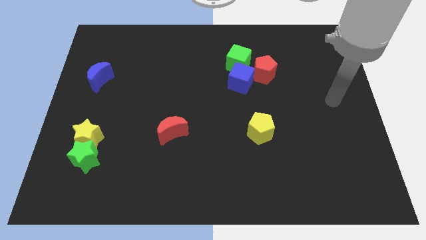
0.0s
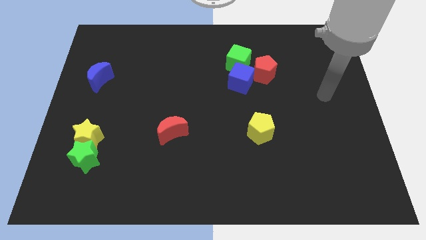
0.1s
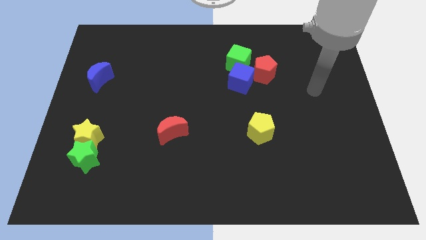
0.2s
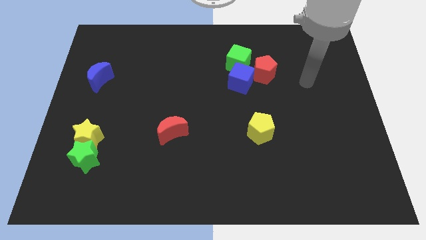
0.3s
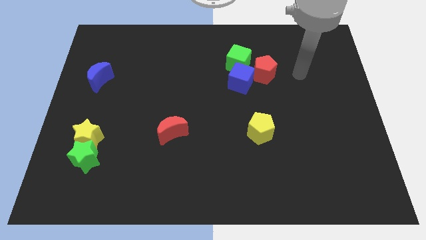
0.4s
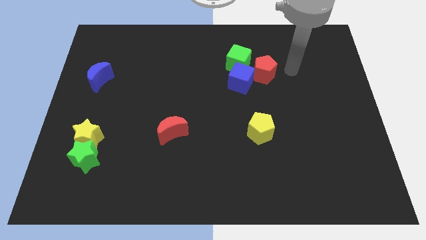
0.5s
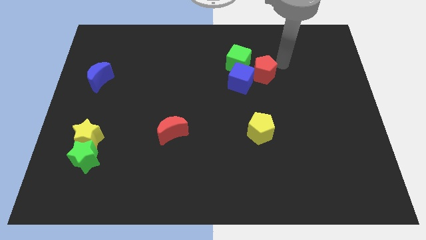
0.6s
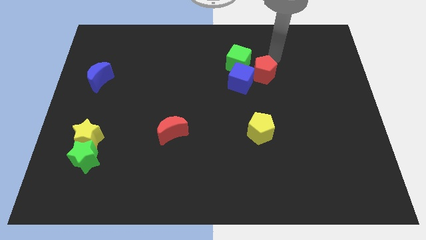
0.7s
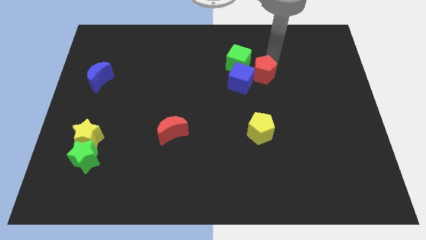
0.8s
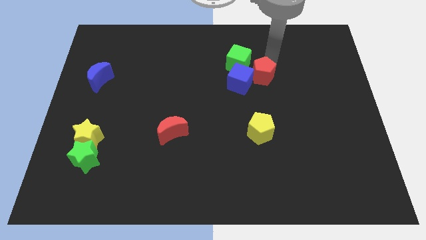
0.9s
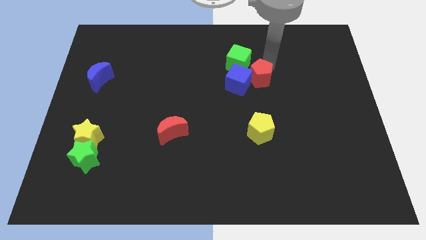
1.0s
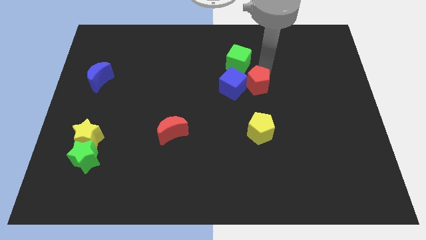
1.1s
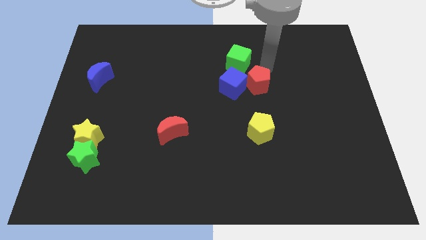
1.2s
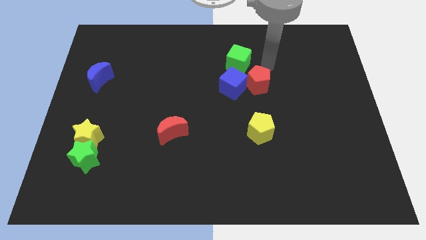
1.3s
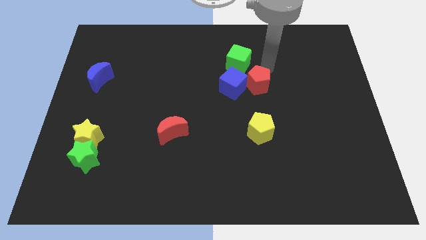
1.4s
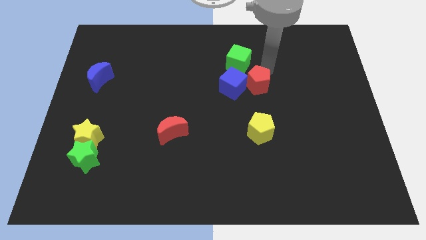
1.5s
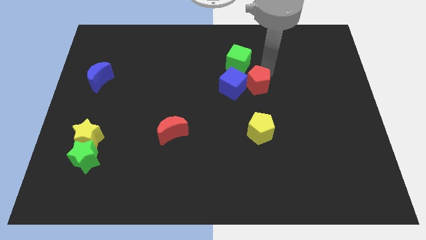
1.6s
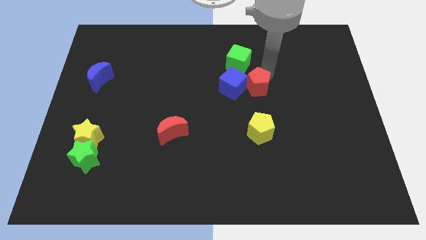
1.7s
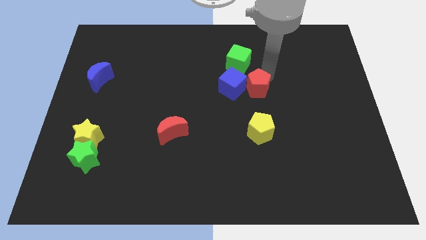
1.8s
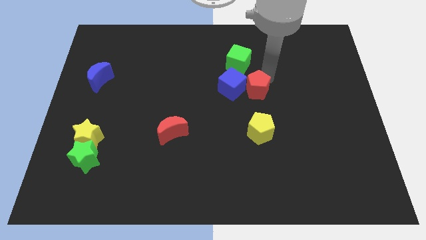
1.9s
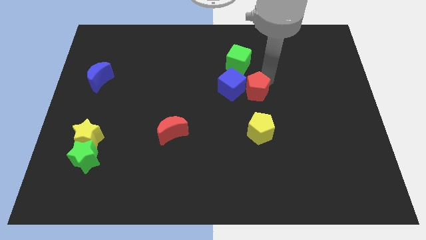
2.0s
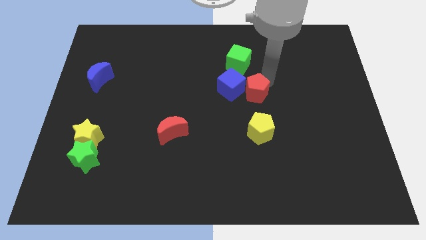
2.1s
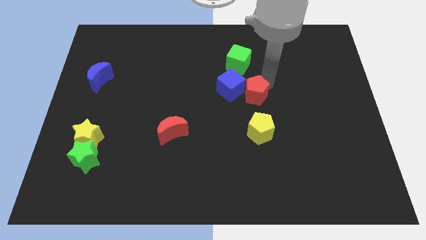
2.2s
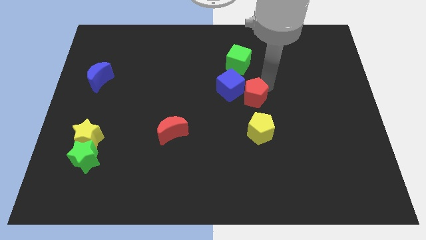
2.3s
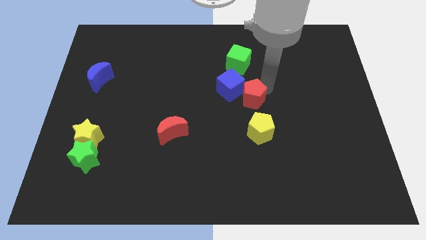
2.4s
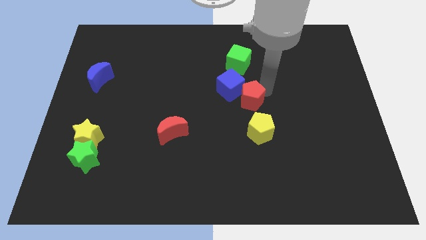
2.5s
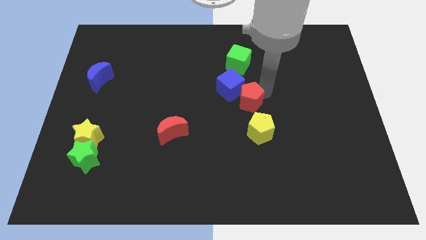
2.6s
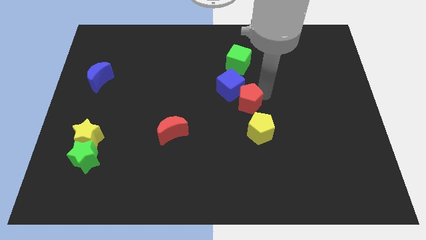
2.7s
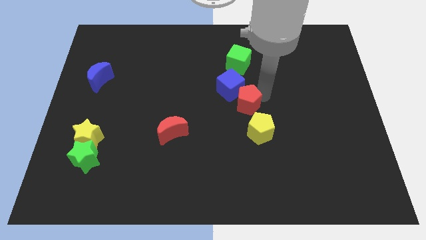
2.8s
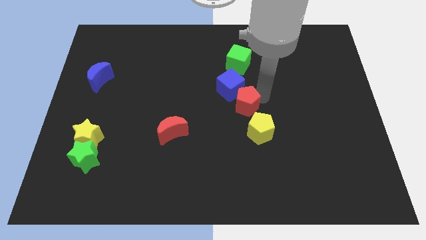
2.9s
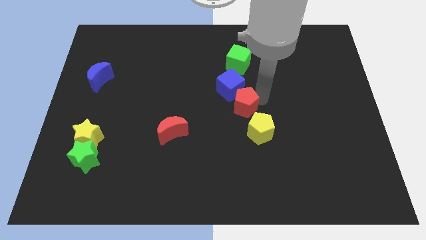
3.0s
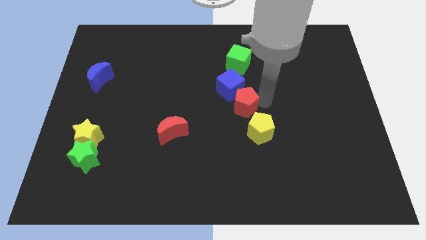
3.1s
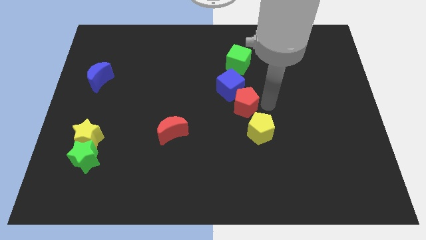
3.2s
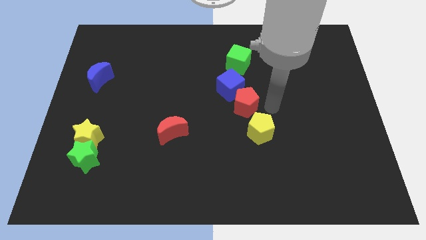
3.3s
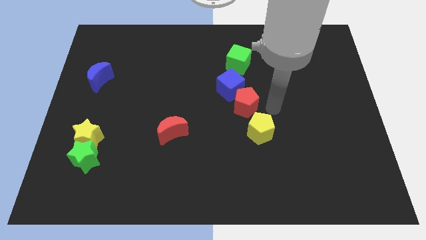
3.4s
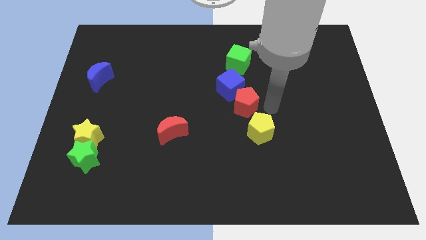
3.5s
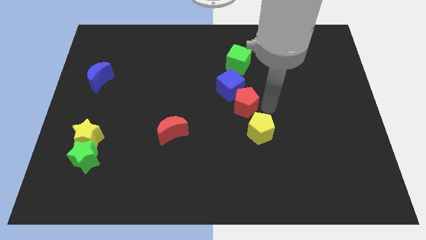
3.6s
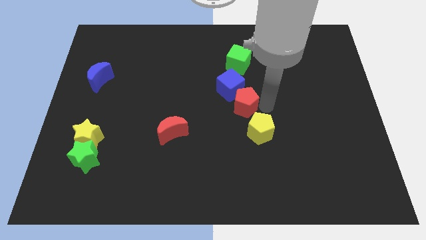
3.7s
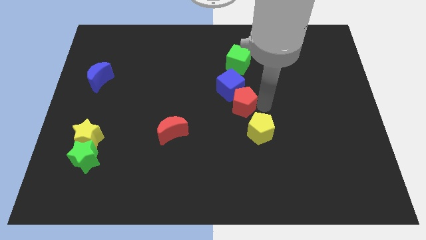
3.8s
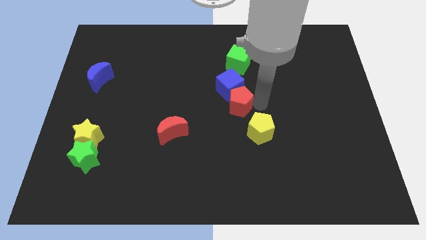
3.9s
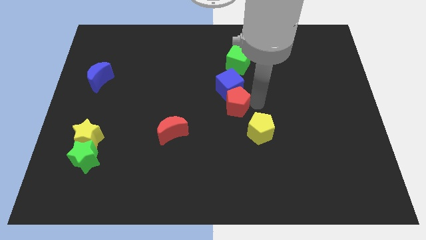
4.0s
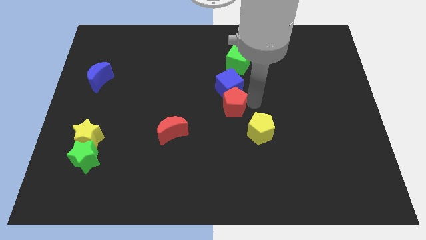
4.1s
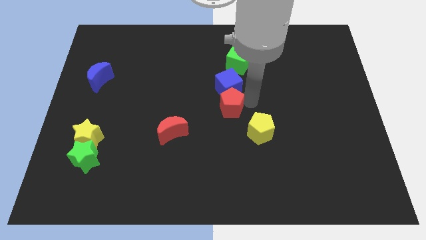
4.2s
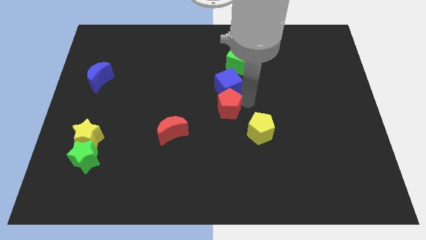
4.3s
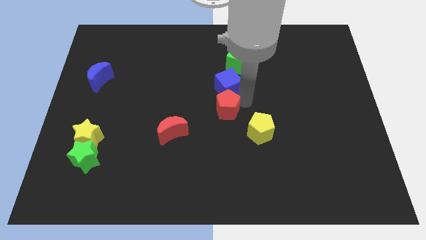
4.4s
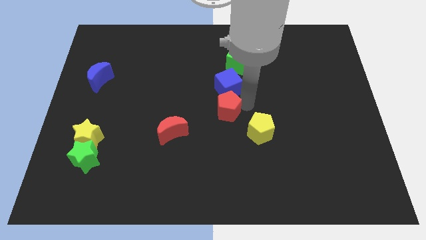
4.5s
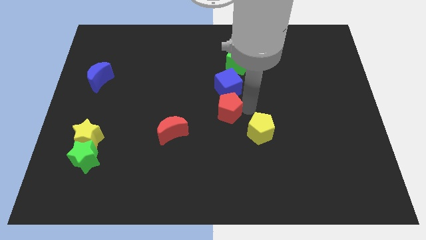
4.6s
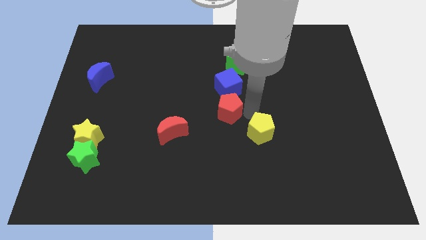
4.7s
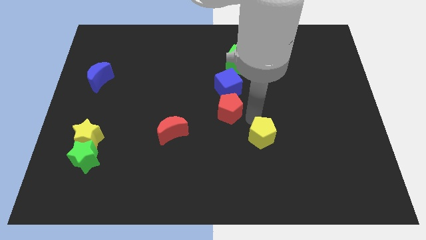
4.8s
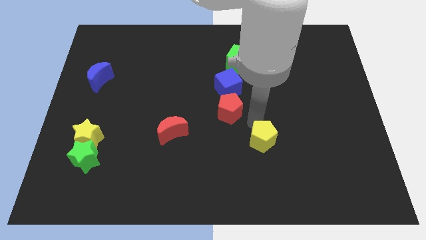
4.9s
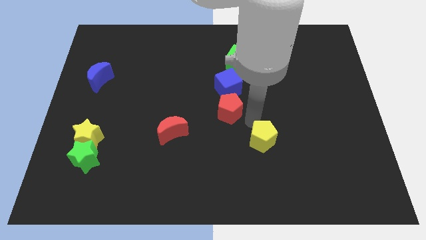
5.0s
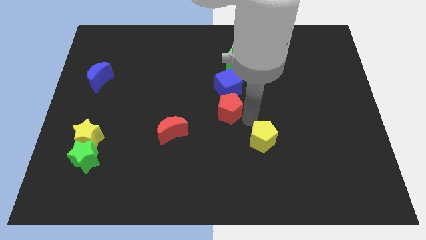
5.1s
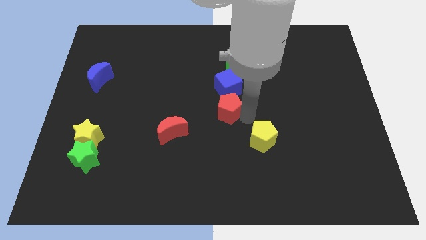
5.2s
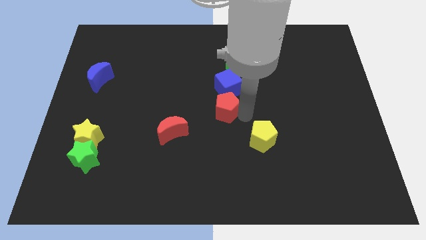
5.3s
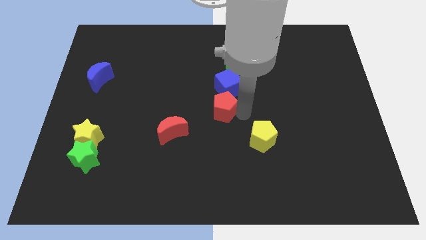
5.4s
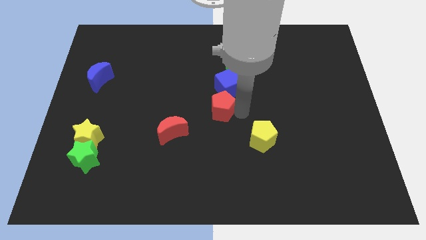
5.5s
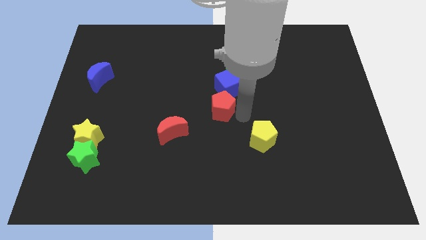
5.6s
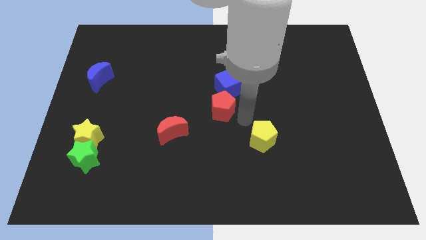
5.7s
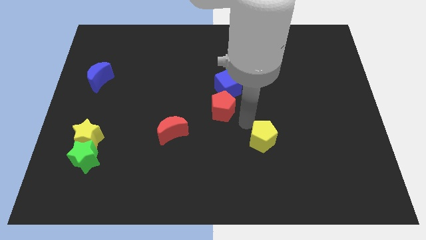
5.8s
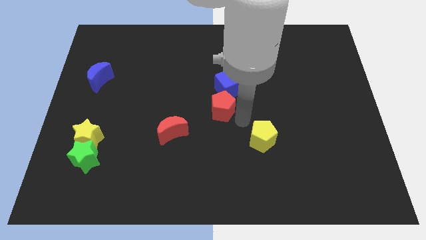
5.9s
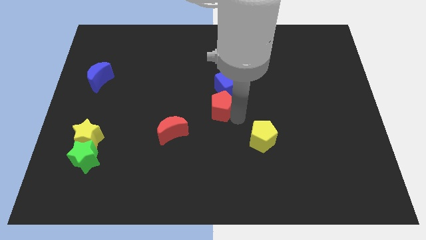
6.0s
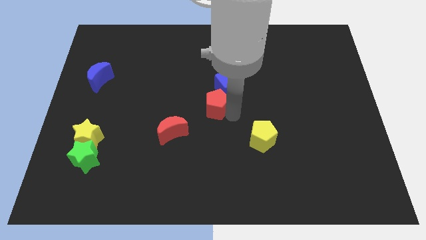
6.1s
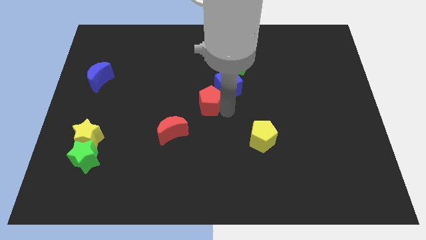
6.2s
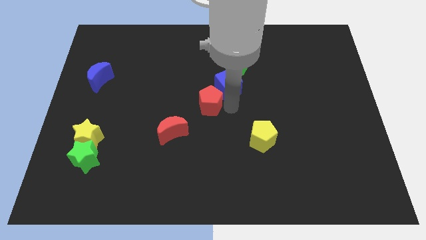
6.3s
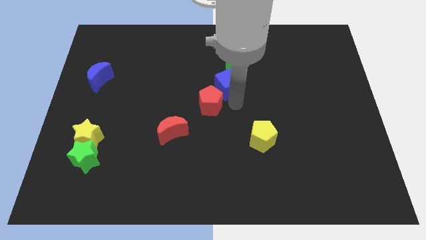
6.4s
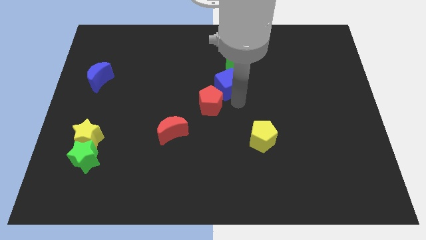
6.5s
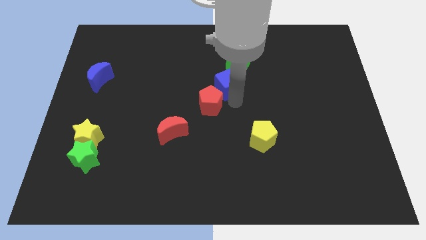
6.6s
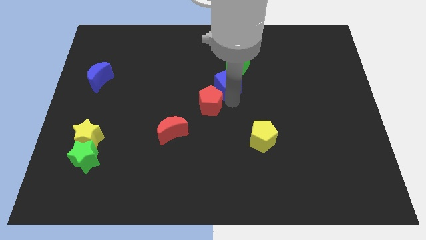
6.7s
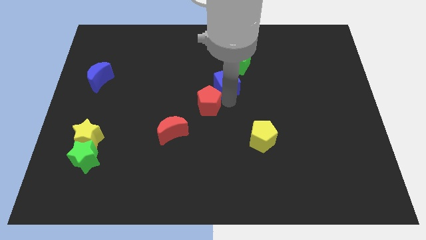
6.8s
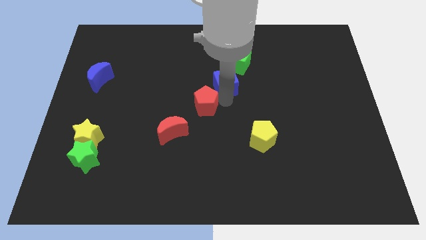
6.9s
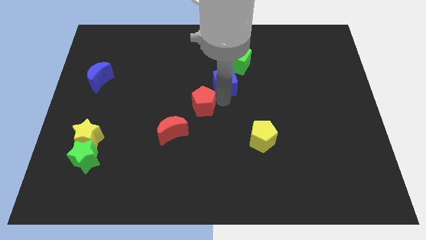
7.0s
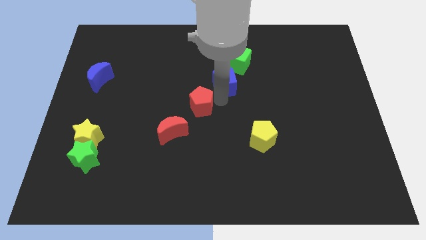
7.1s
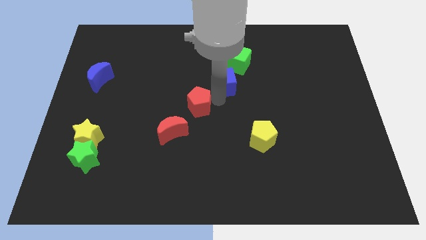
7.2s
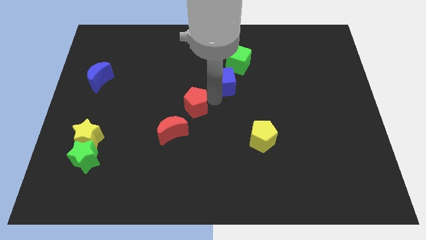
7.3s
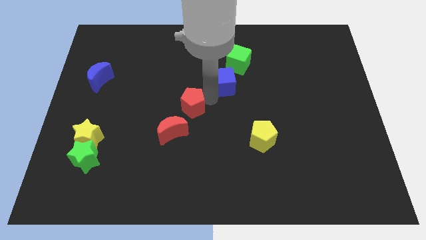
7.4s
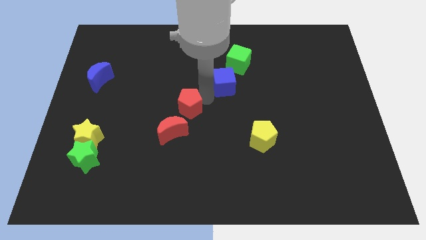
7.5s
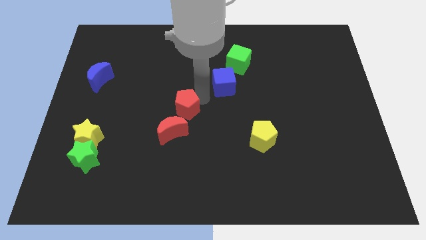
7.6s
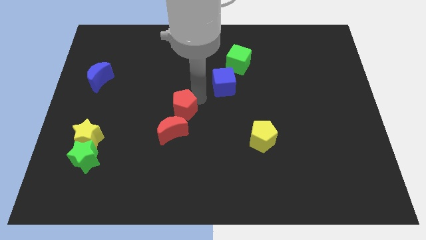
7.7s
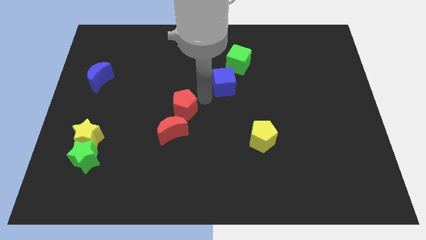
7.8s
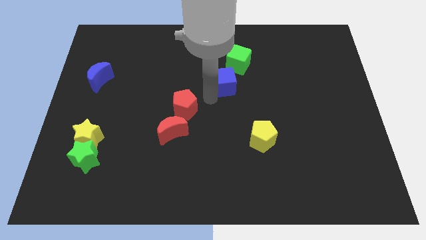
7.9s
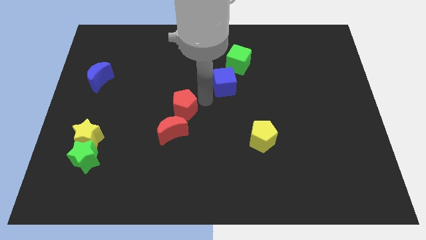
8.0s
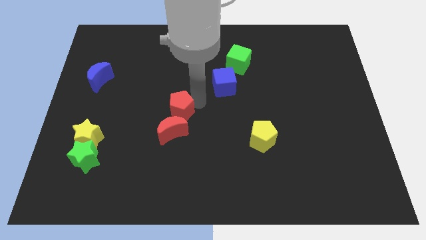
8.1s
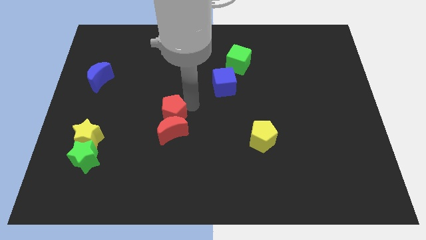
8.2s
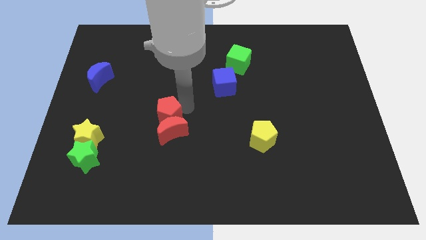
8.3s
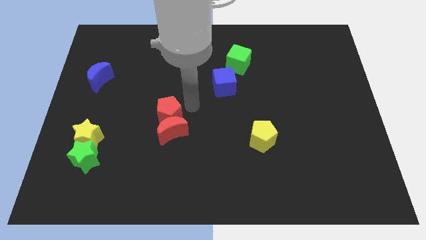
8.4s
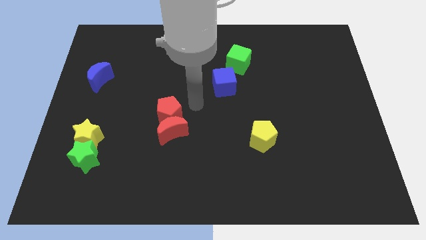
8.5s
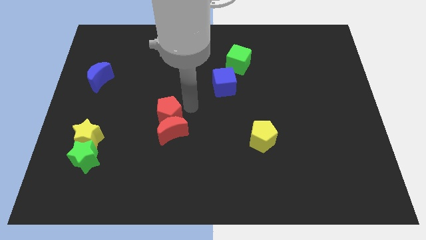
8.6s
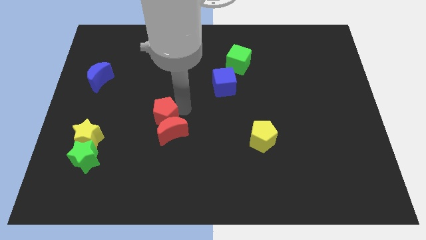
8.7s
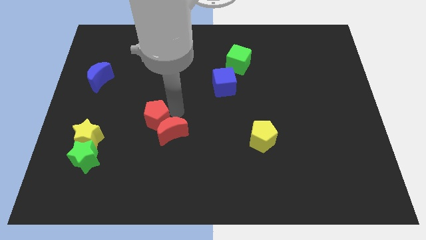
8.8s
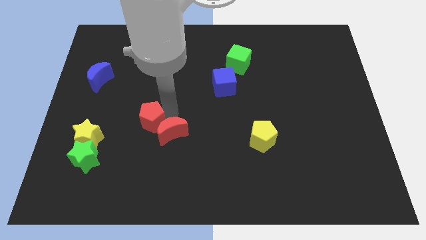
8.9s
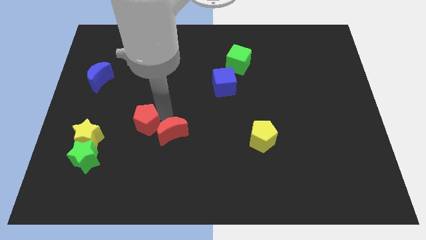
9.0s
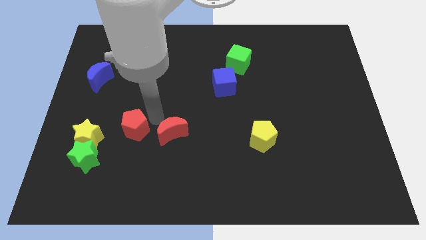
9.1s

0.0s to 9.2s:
slide the red pentagon diagonally up and to the right of the green star
